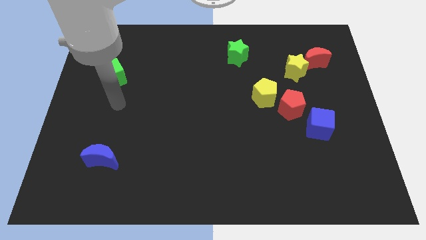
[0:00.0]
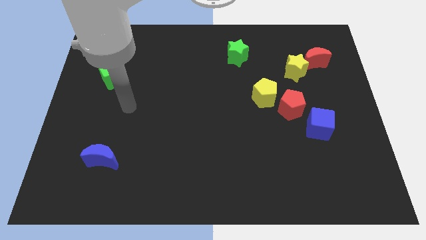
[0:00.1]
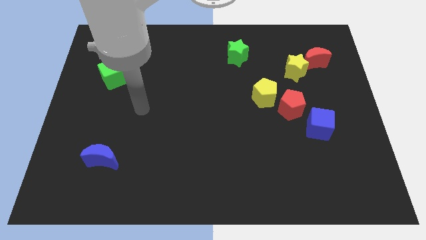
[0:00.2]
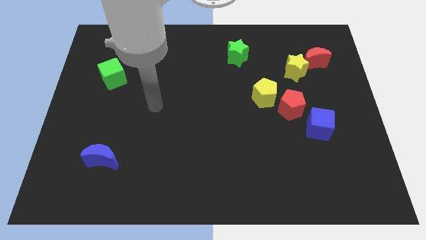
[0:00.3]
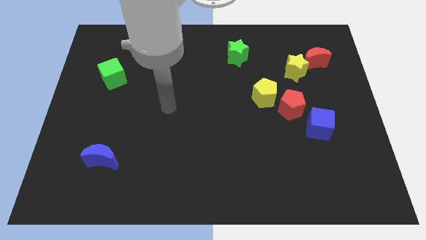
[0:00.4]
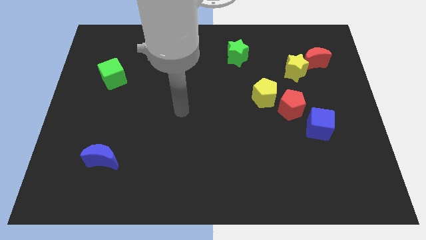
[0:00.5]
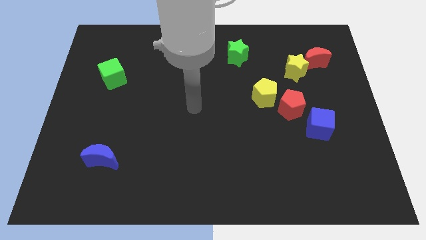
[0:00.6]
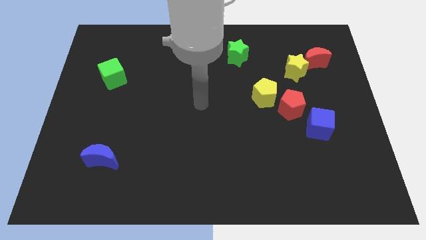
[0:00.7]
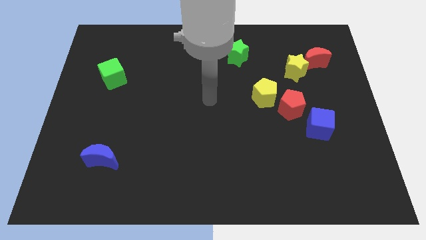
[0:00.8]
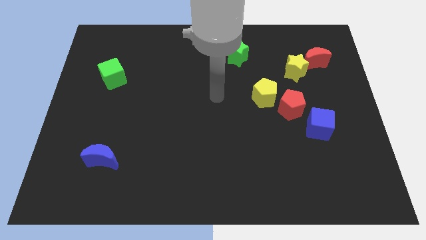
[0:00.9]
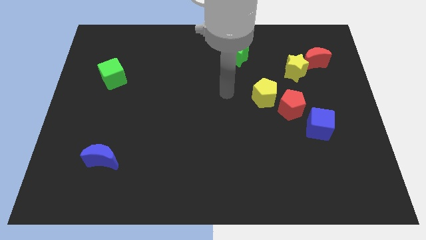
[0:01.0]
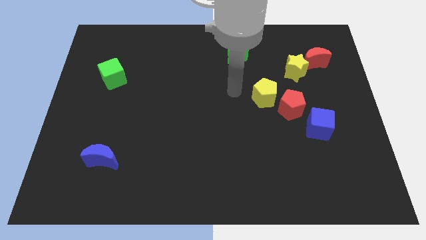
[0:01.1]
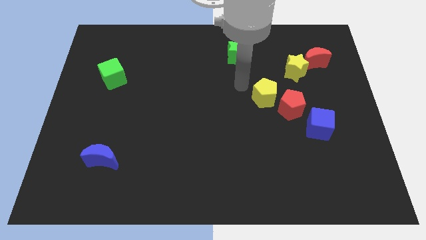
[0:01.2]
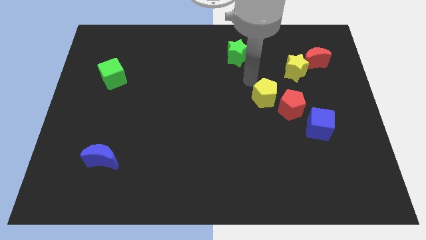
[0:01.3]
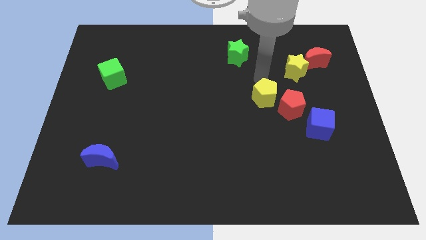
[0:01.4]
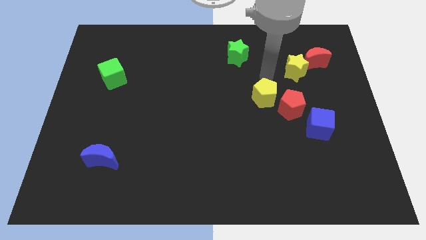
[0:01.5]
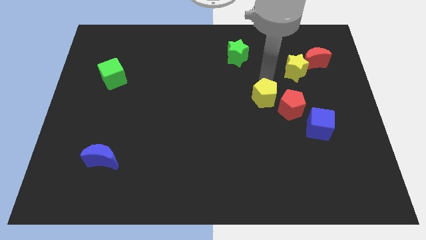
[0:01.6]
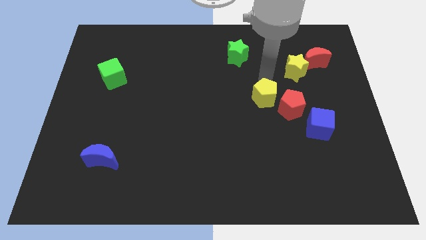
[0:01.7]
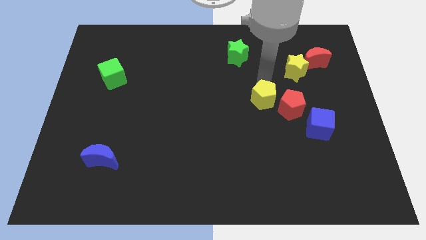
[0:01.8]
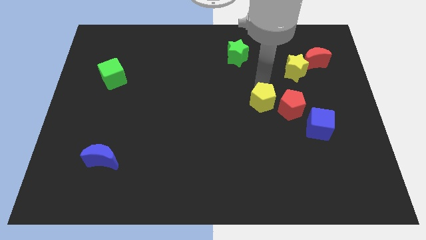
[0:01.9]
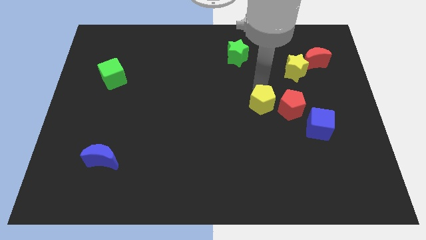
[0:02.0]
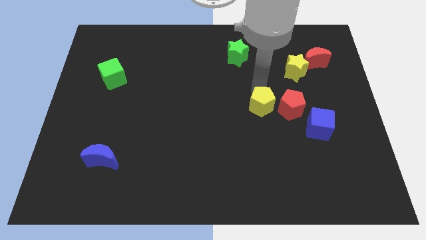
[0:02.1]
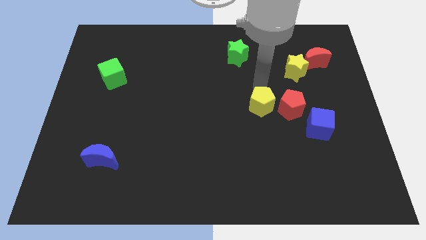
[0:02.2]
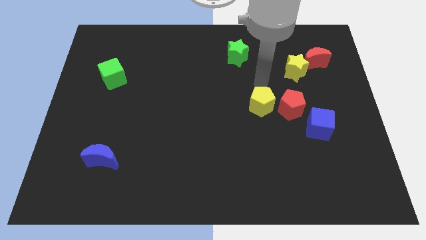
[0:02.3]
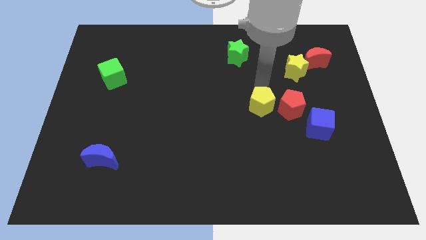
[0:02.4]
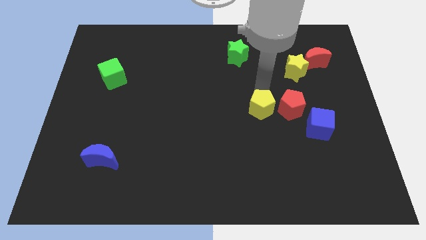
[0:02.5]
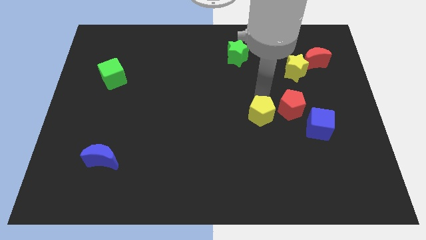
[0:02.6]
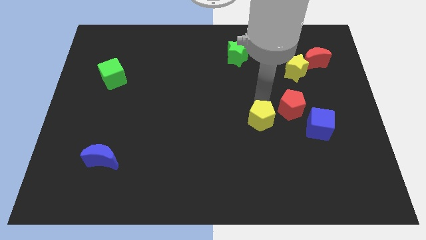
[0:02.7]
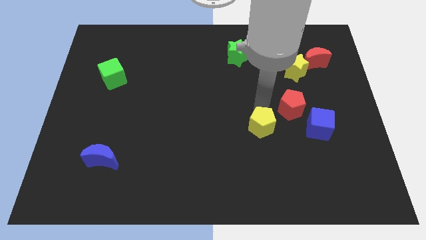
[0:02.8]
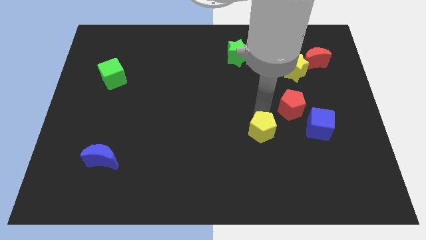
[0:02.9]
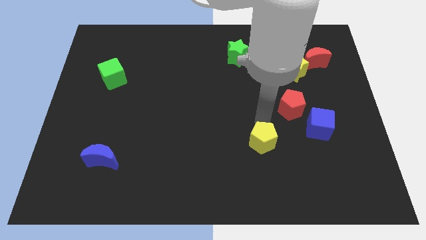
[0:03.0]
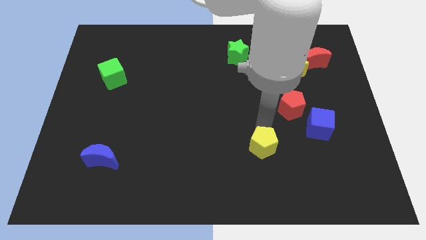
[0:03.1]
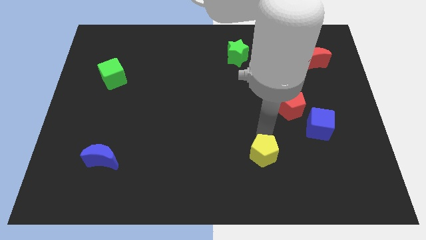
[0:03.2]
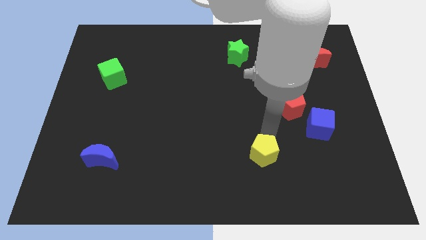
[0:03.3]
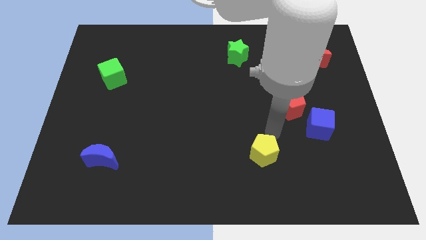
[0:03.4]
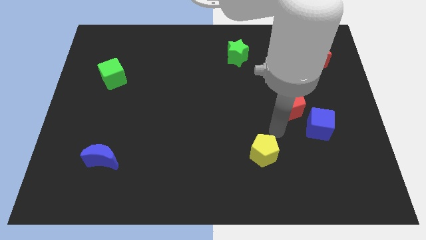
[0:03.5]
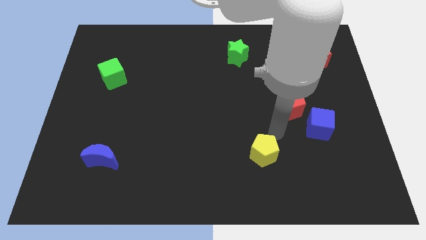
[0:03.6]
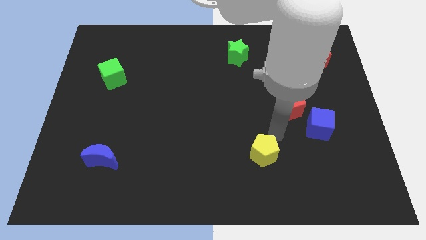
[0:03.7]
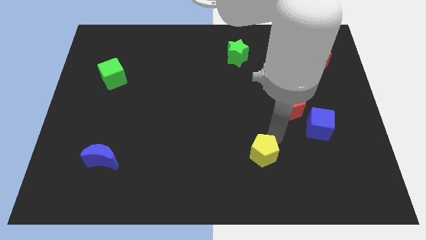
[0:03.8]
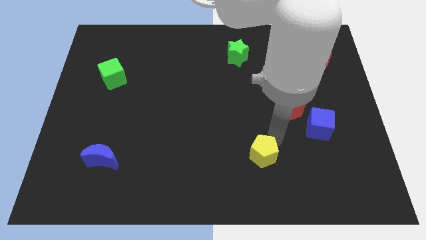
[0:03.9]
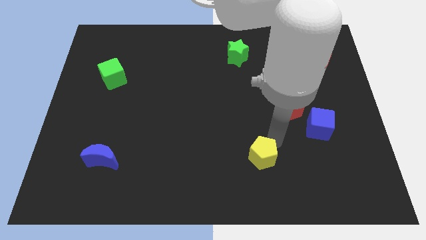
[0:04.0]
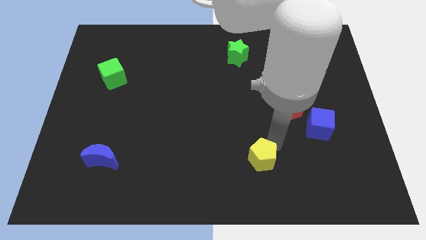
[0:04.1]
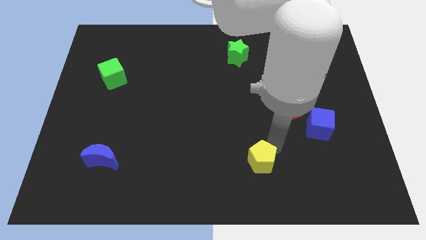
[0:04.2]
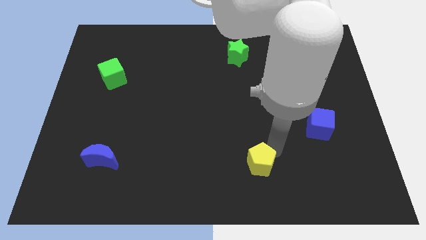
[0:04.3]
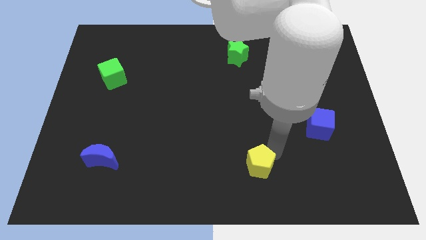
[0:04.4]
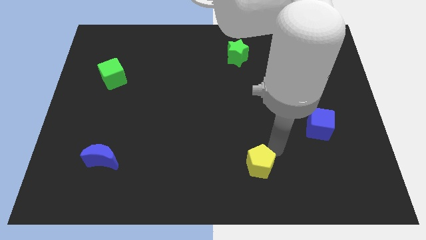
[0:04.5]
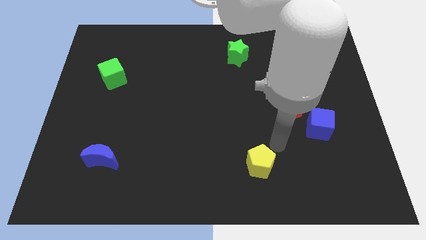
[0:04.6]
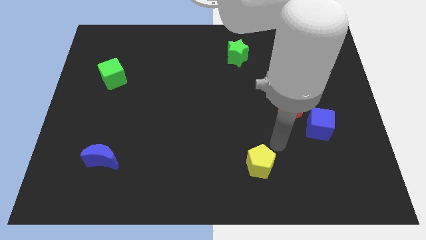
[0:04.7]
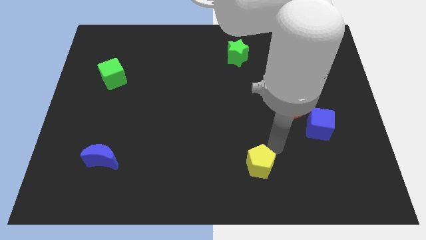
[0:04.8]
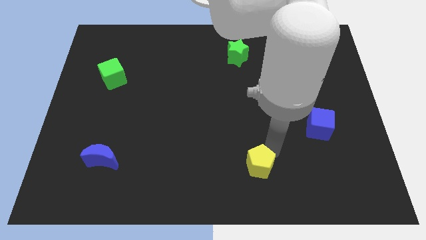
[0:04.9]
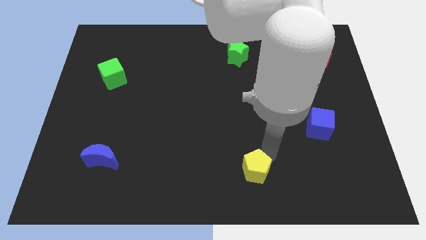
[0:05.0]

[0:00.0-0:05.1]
move the yellow pentagon to the bottom

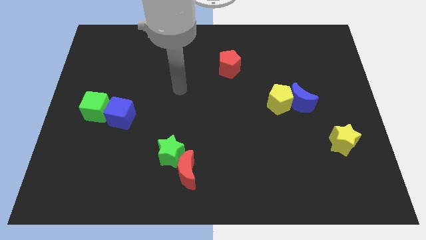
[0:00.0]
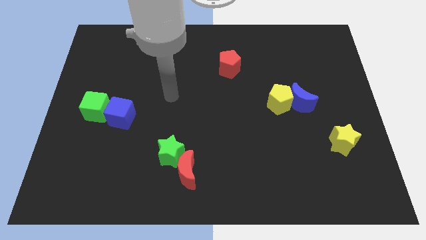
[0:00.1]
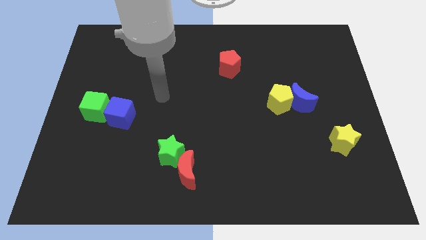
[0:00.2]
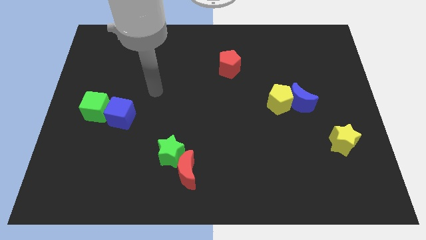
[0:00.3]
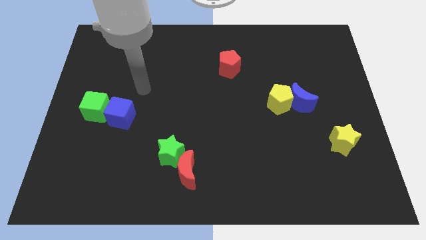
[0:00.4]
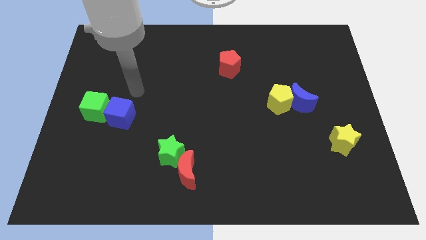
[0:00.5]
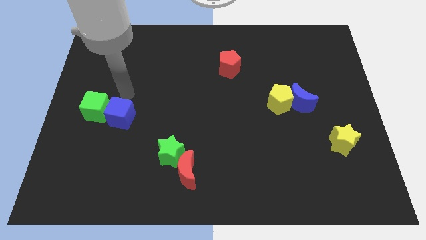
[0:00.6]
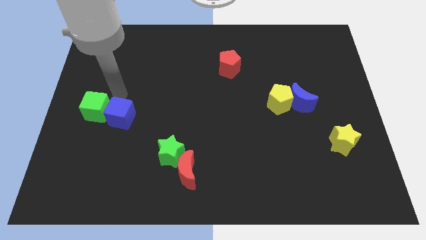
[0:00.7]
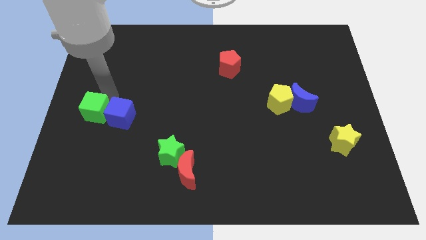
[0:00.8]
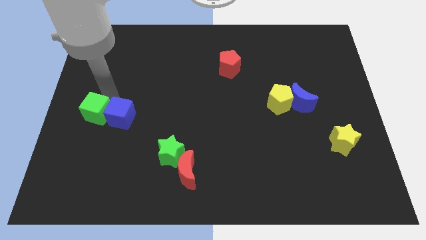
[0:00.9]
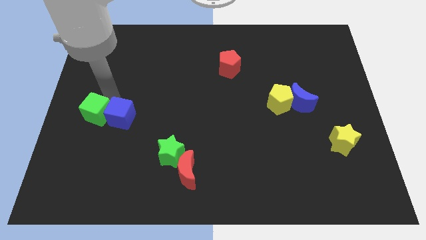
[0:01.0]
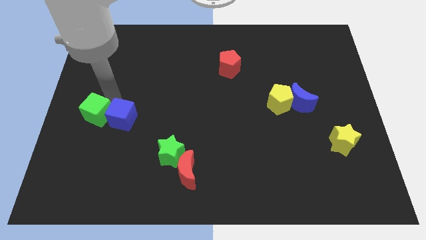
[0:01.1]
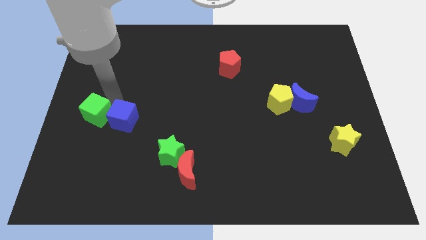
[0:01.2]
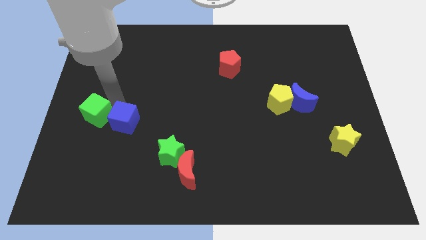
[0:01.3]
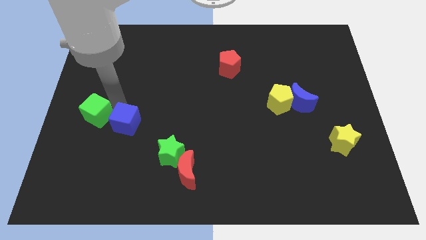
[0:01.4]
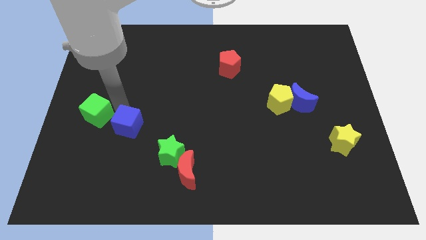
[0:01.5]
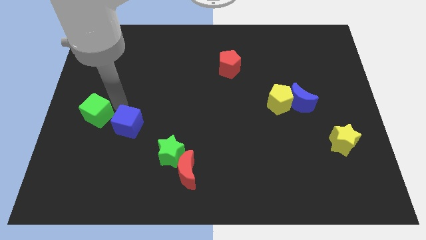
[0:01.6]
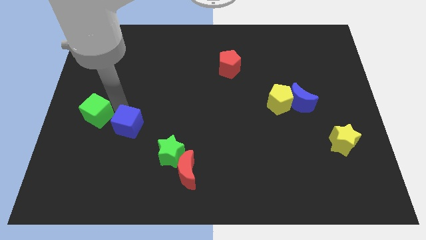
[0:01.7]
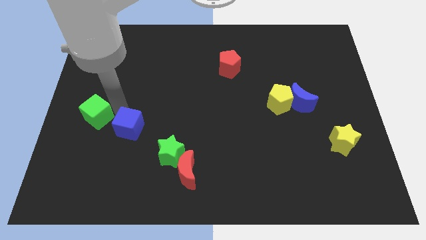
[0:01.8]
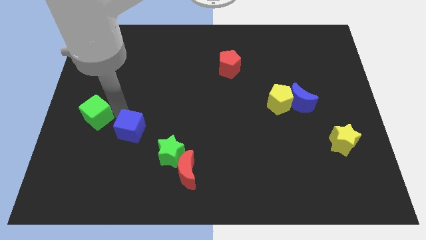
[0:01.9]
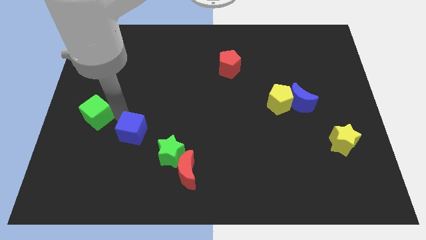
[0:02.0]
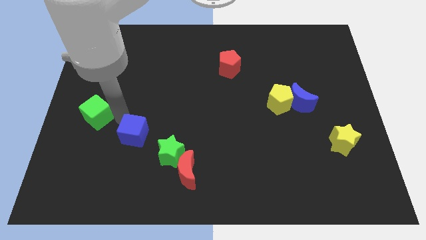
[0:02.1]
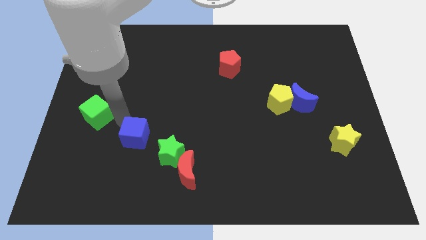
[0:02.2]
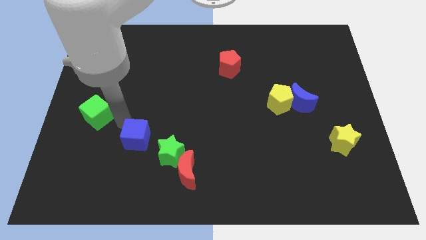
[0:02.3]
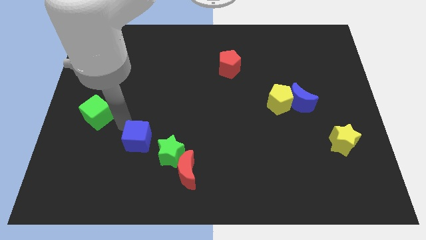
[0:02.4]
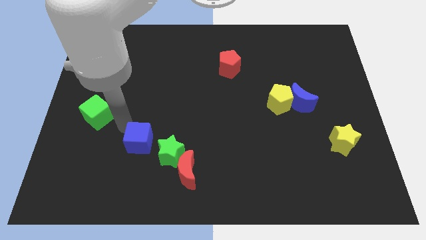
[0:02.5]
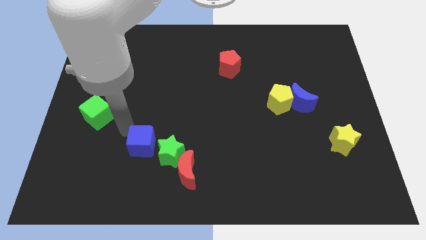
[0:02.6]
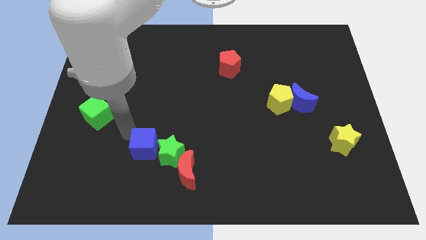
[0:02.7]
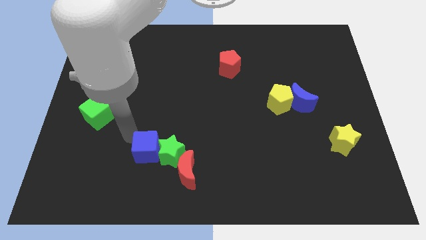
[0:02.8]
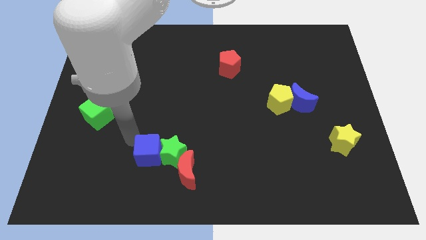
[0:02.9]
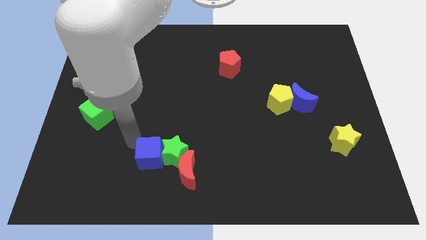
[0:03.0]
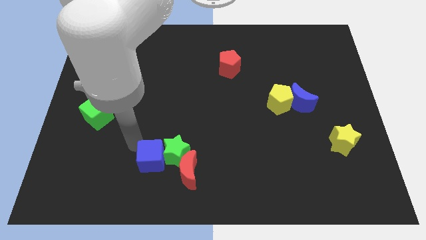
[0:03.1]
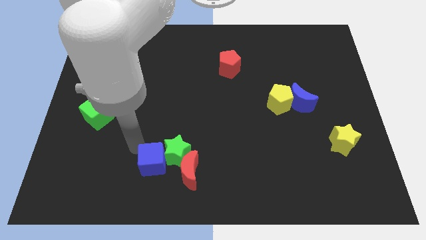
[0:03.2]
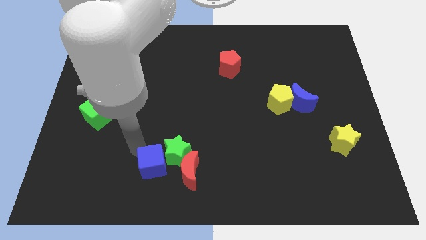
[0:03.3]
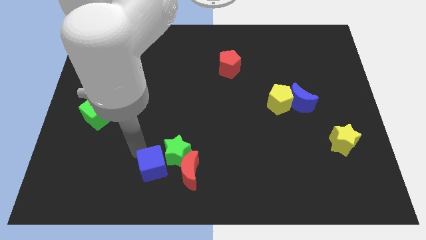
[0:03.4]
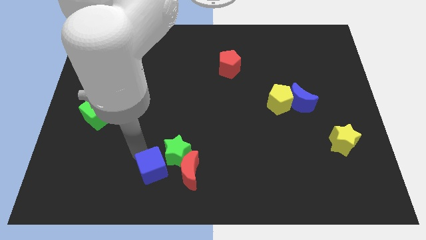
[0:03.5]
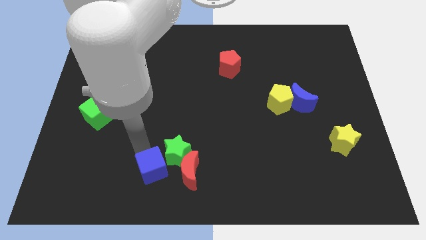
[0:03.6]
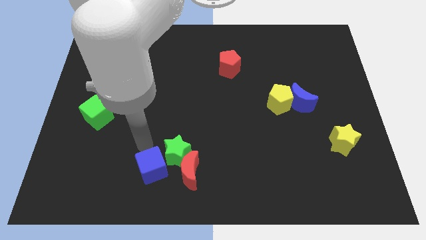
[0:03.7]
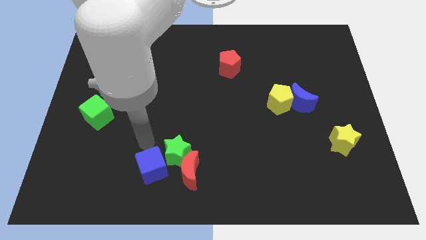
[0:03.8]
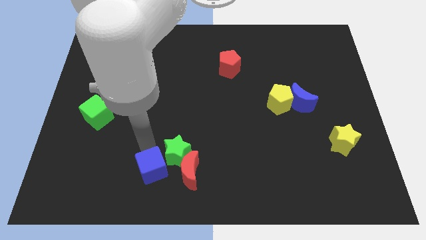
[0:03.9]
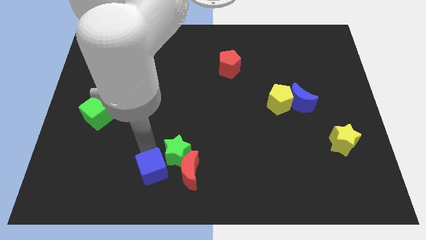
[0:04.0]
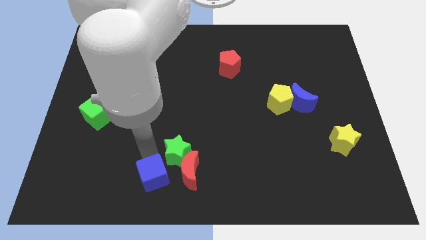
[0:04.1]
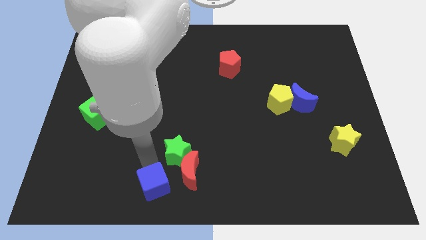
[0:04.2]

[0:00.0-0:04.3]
put the blue cube to the bottom side
